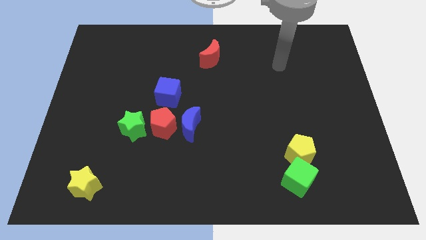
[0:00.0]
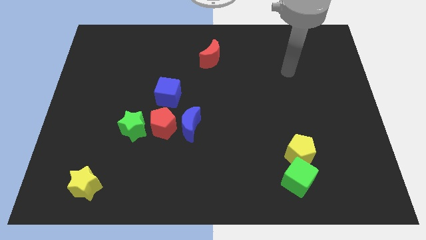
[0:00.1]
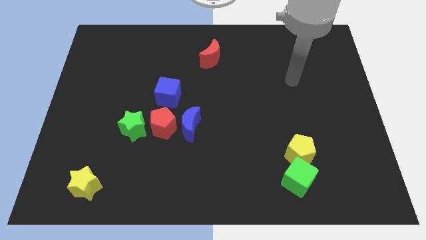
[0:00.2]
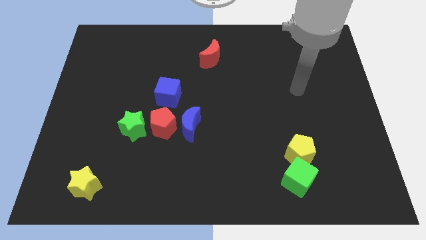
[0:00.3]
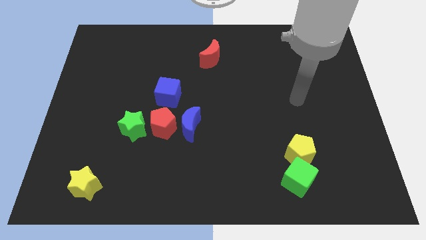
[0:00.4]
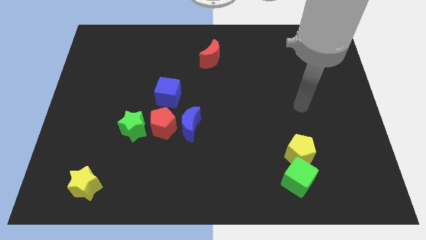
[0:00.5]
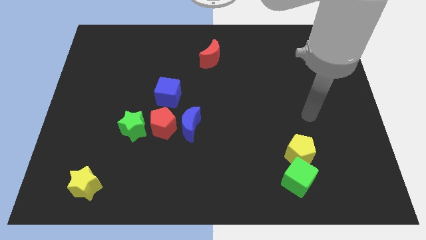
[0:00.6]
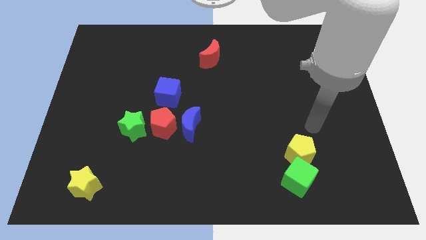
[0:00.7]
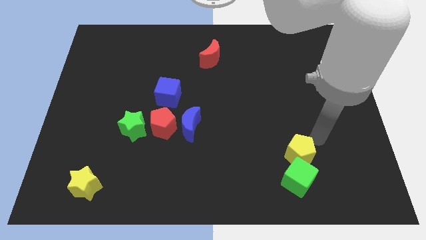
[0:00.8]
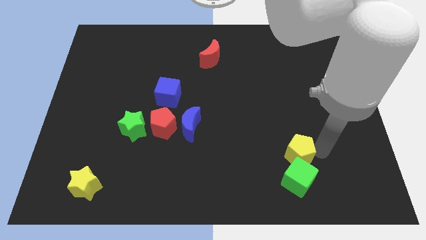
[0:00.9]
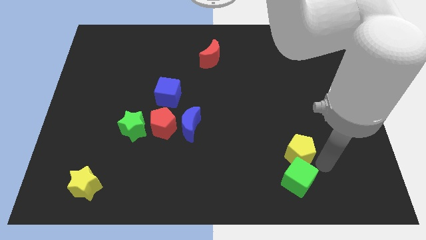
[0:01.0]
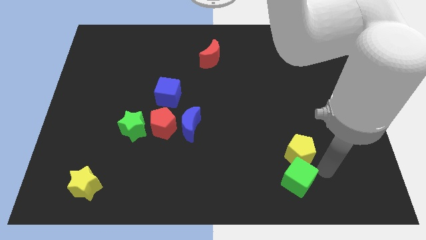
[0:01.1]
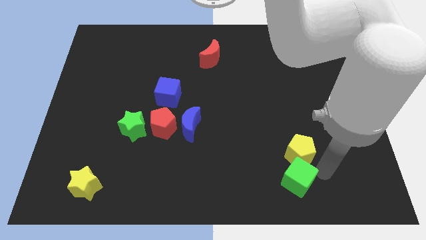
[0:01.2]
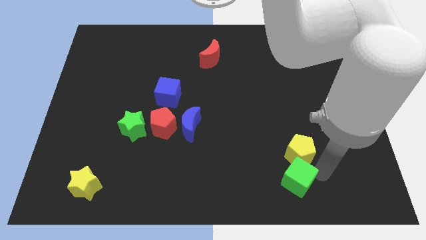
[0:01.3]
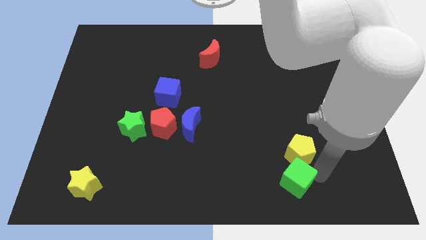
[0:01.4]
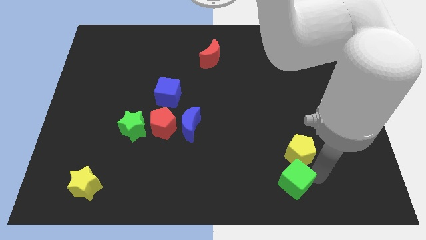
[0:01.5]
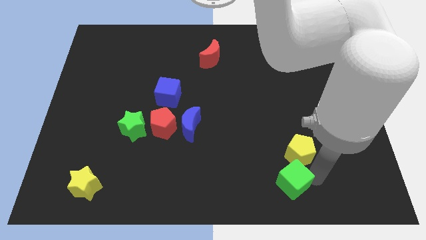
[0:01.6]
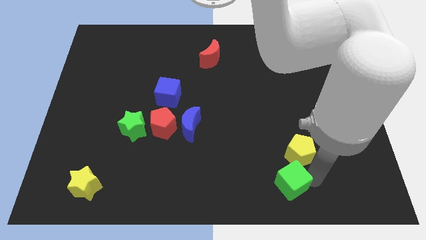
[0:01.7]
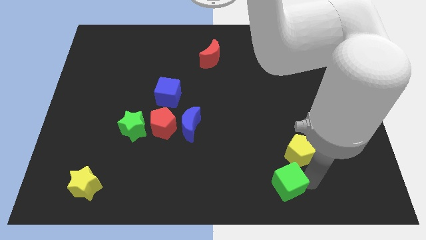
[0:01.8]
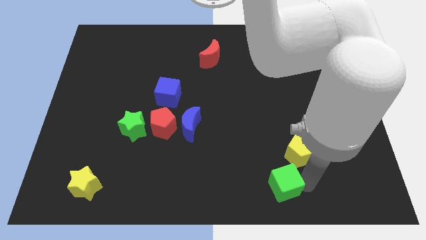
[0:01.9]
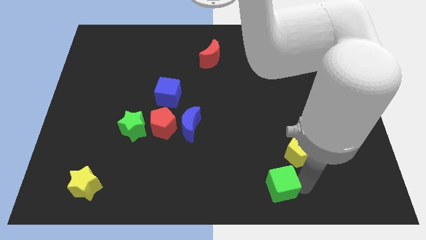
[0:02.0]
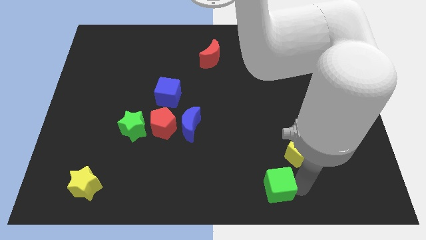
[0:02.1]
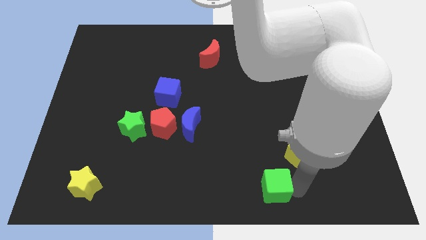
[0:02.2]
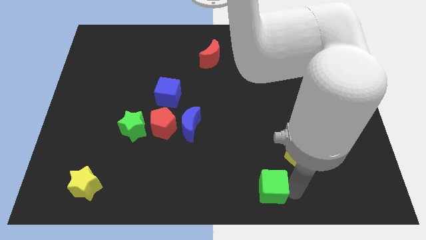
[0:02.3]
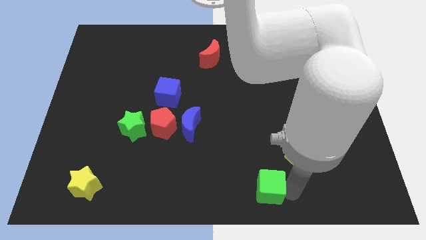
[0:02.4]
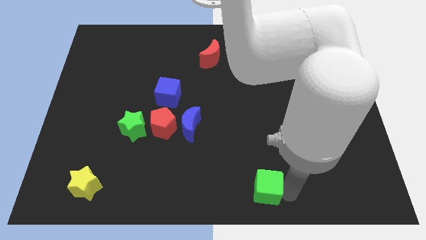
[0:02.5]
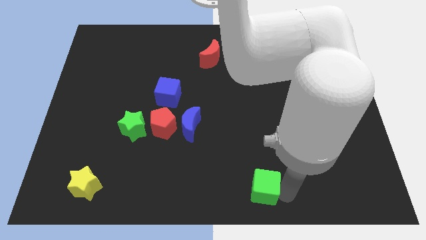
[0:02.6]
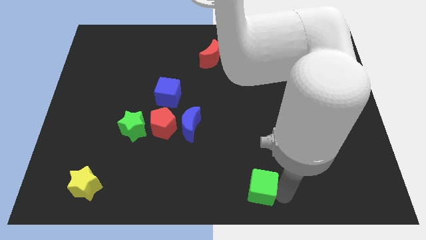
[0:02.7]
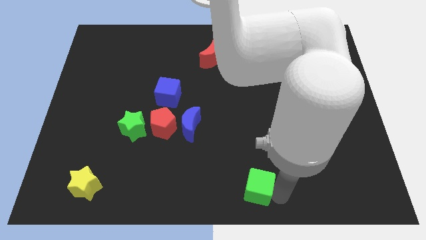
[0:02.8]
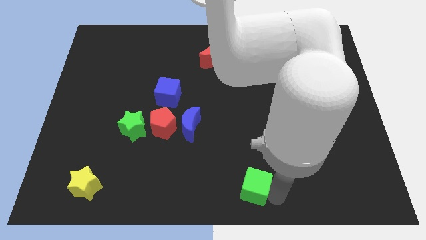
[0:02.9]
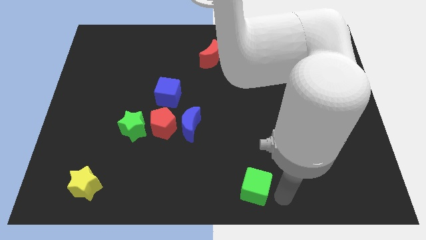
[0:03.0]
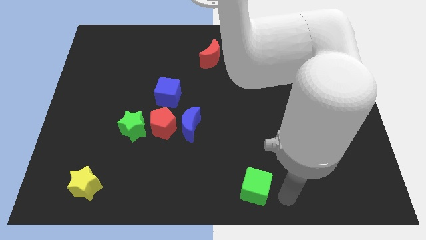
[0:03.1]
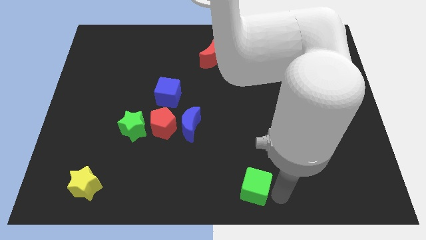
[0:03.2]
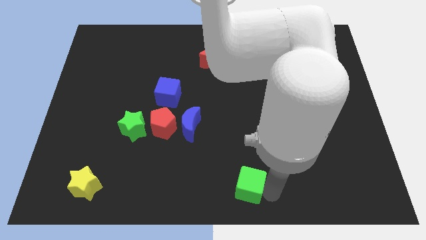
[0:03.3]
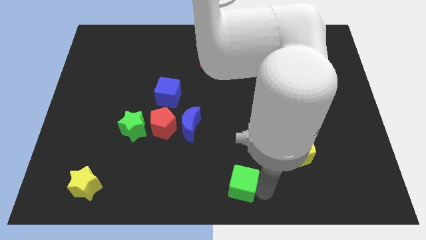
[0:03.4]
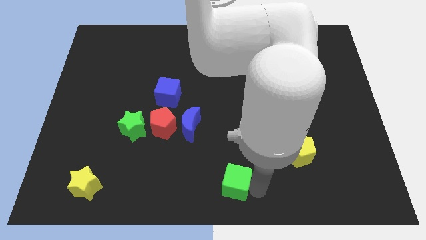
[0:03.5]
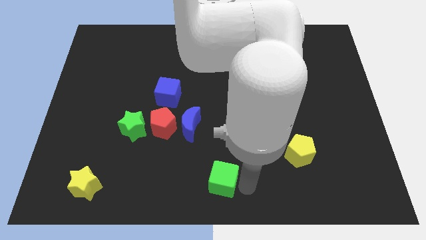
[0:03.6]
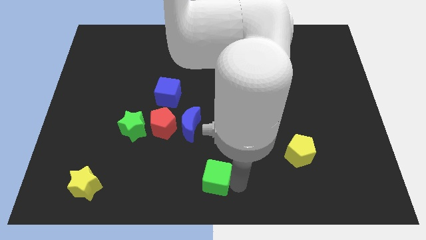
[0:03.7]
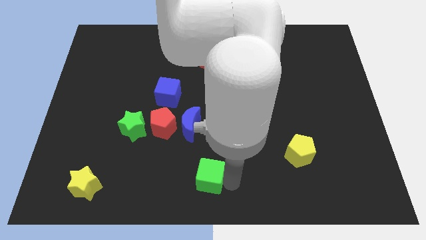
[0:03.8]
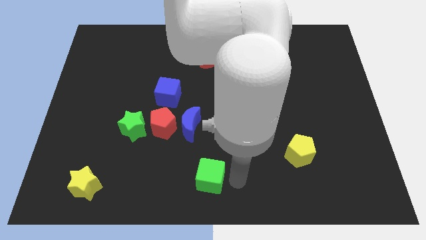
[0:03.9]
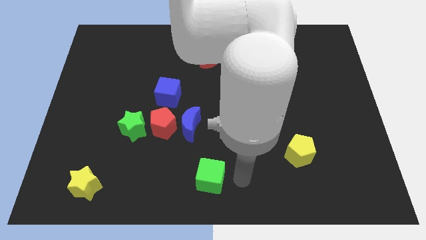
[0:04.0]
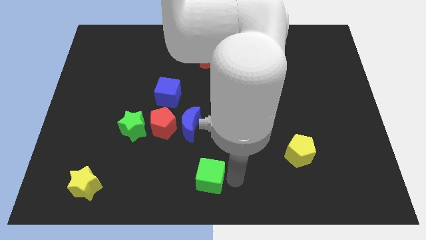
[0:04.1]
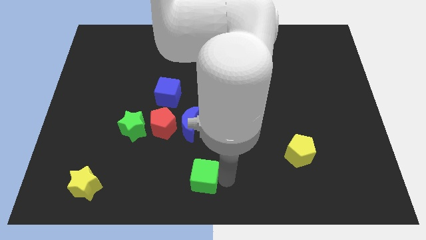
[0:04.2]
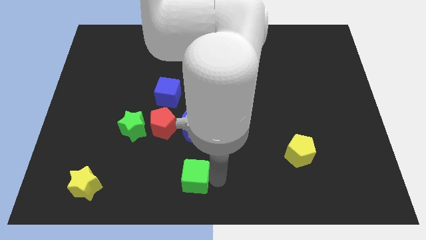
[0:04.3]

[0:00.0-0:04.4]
slide the green cube left

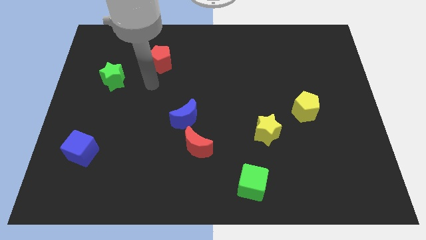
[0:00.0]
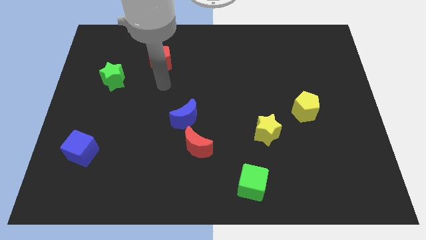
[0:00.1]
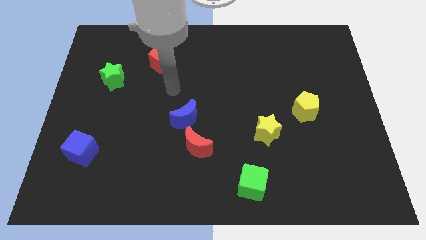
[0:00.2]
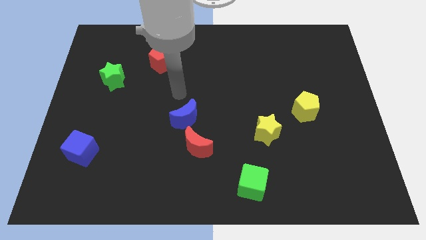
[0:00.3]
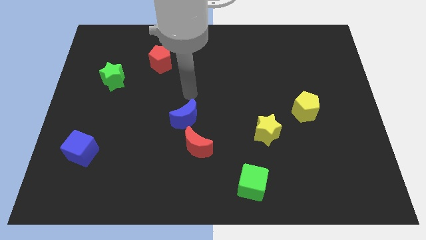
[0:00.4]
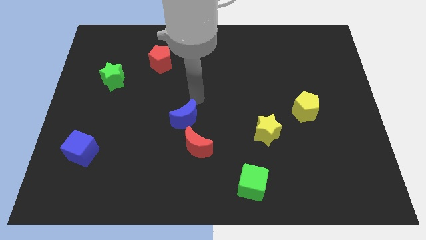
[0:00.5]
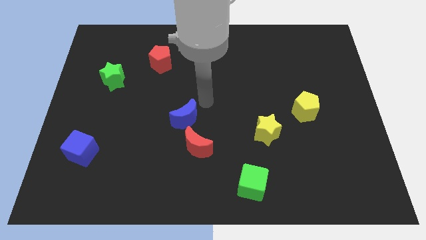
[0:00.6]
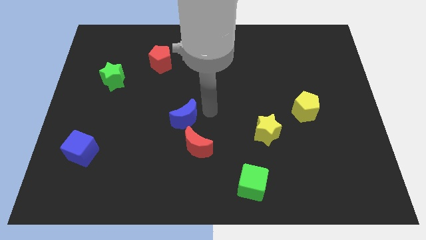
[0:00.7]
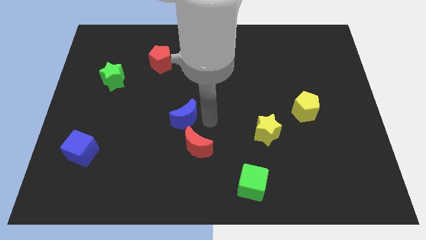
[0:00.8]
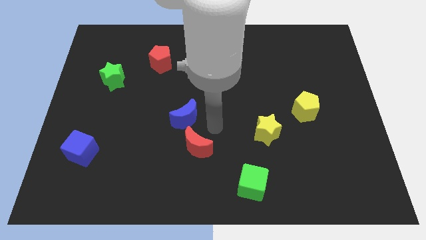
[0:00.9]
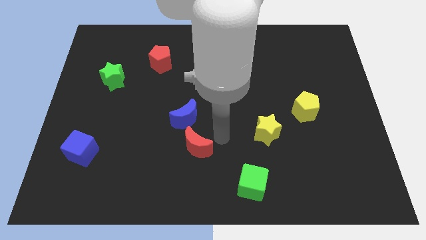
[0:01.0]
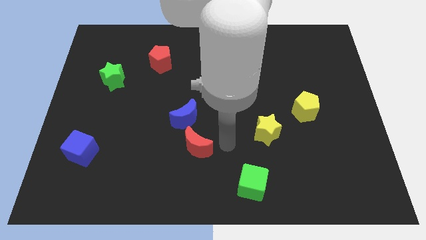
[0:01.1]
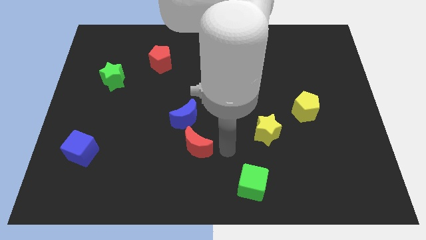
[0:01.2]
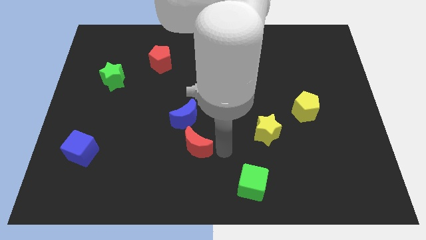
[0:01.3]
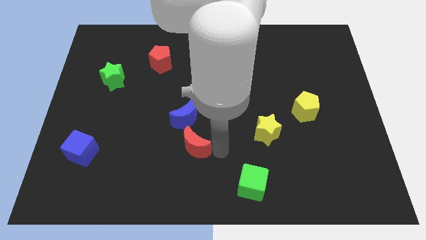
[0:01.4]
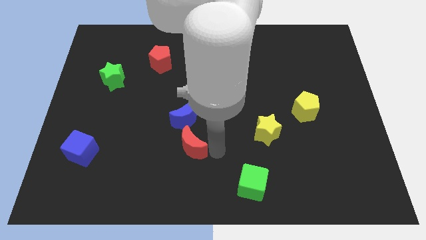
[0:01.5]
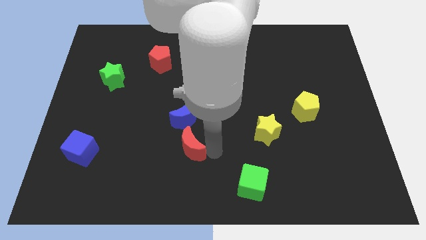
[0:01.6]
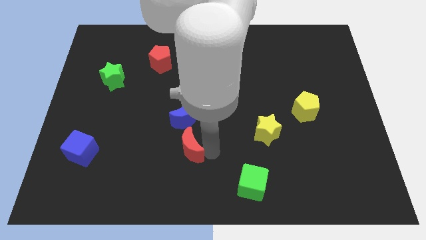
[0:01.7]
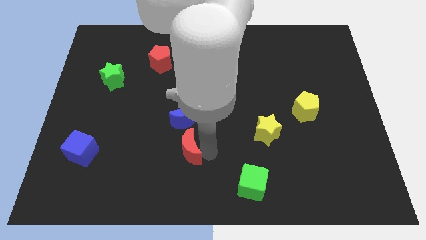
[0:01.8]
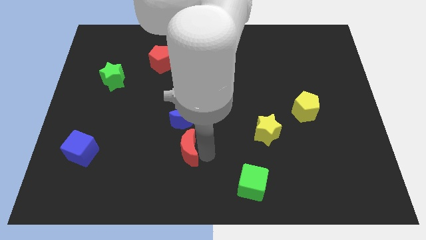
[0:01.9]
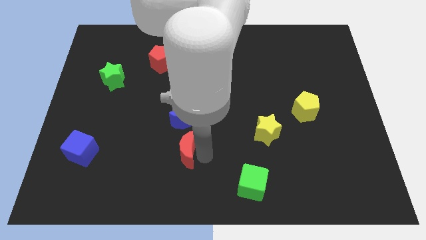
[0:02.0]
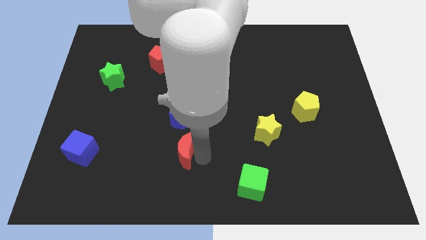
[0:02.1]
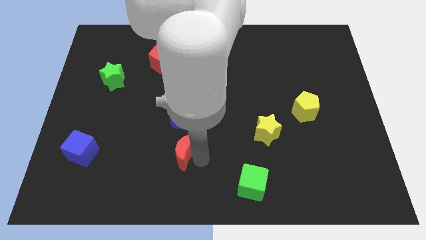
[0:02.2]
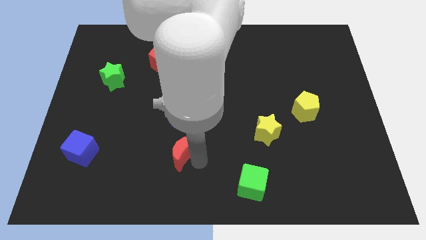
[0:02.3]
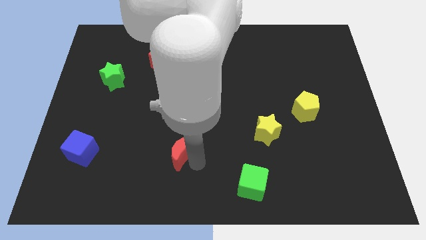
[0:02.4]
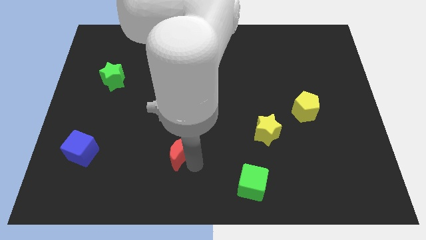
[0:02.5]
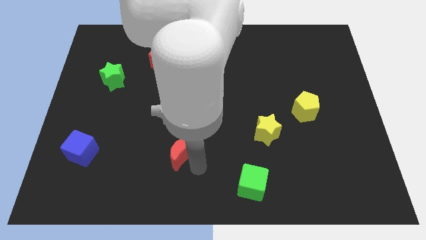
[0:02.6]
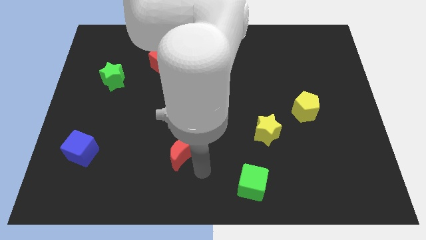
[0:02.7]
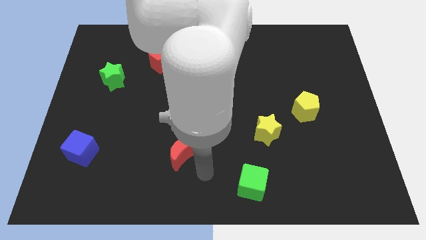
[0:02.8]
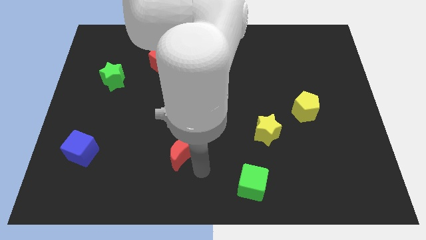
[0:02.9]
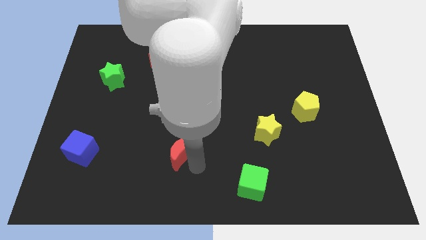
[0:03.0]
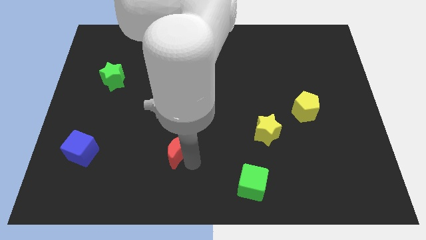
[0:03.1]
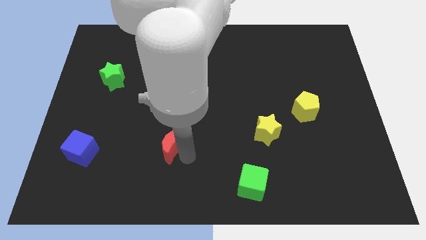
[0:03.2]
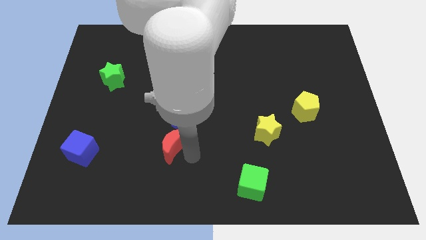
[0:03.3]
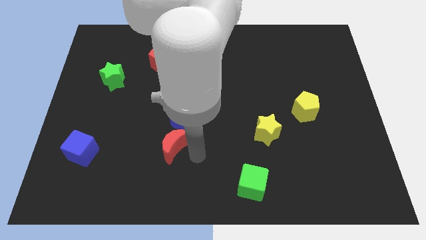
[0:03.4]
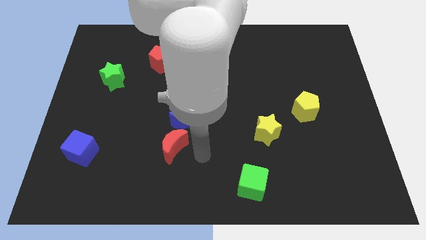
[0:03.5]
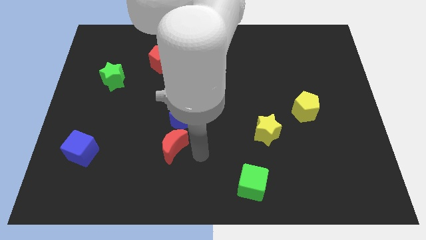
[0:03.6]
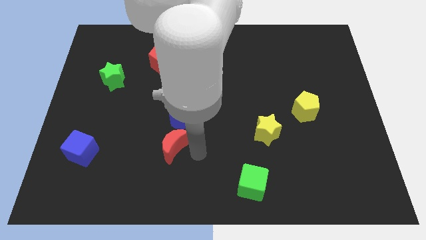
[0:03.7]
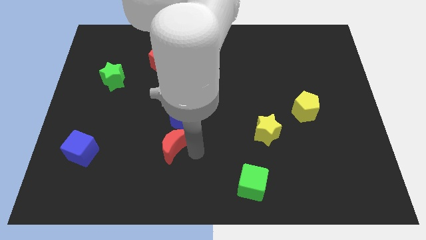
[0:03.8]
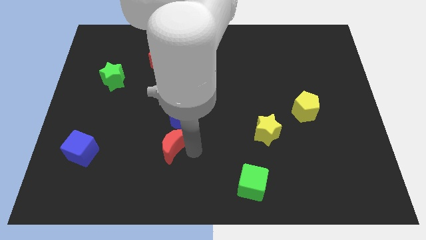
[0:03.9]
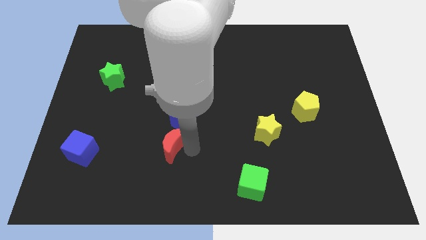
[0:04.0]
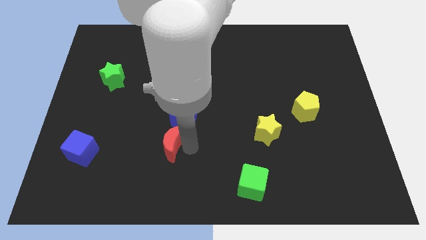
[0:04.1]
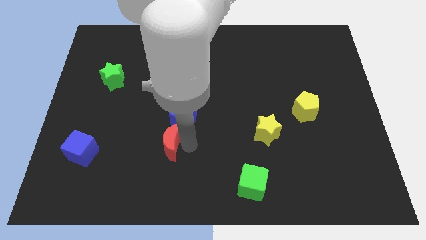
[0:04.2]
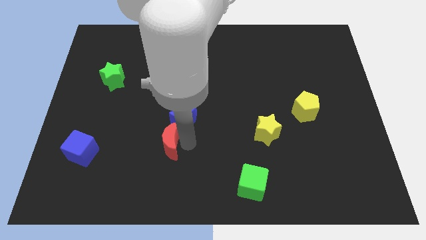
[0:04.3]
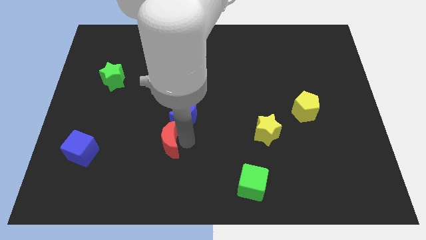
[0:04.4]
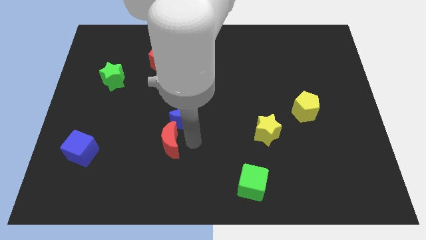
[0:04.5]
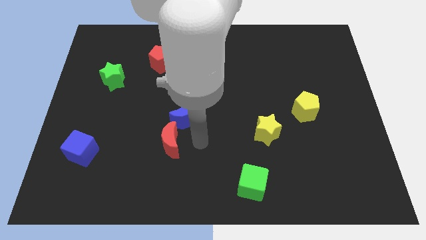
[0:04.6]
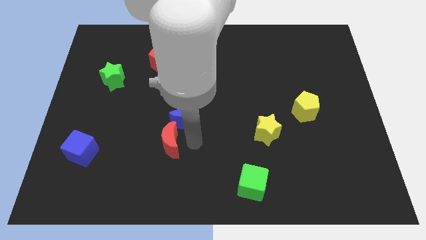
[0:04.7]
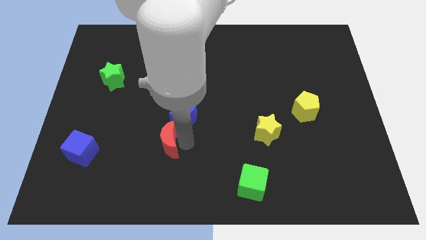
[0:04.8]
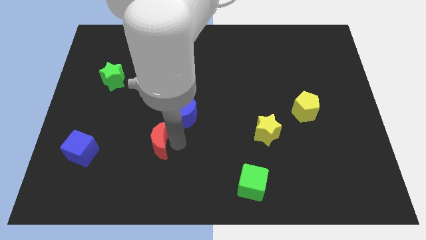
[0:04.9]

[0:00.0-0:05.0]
slightly slide the red moon left
